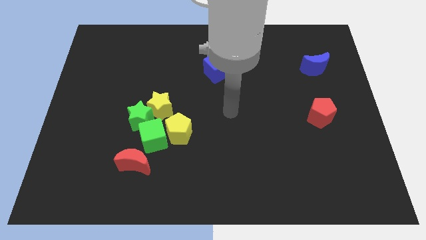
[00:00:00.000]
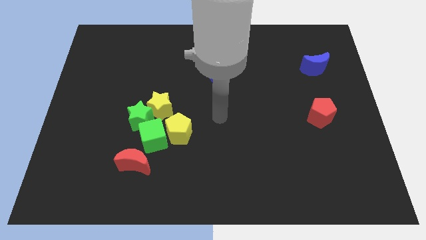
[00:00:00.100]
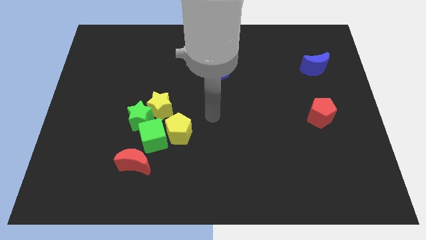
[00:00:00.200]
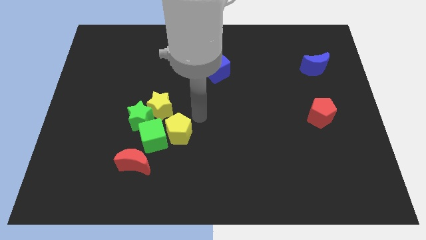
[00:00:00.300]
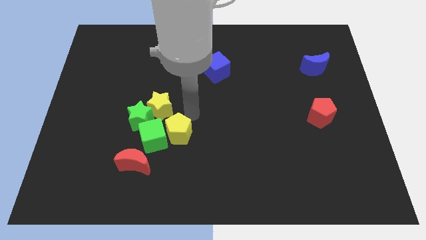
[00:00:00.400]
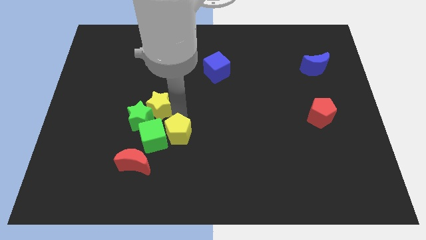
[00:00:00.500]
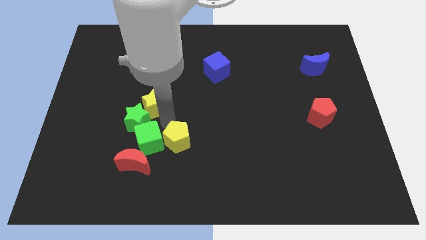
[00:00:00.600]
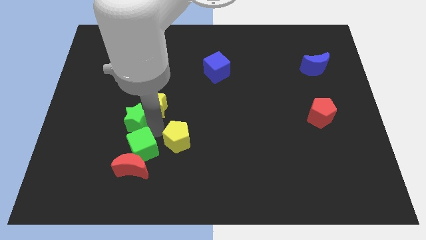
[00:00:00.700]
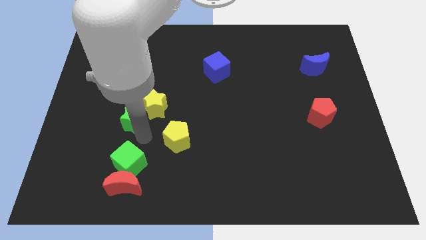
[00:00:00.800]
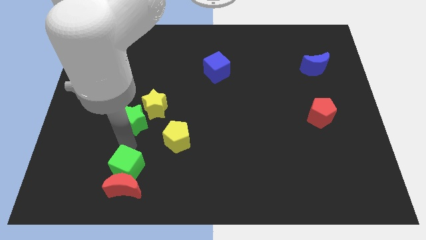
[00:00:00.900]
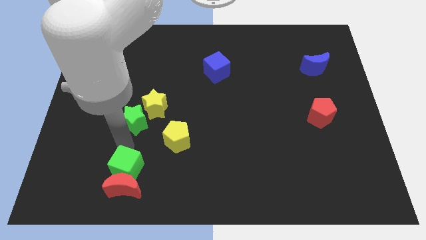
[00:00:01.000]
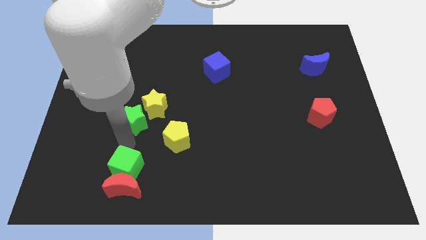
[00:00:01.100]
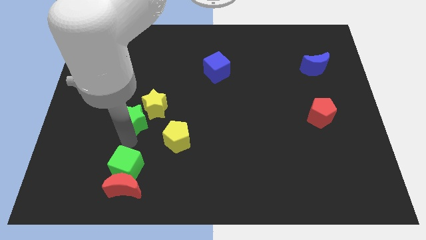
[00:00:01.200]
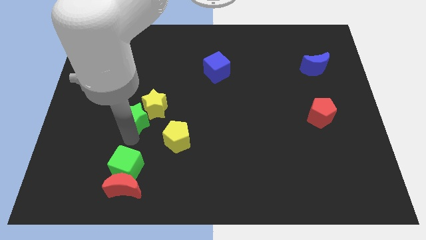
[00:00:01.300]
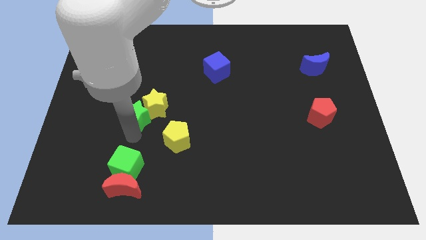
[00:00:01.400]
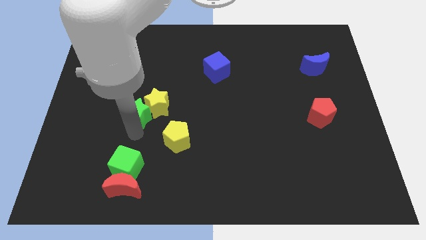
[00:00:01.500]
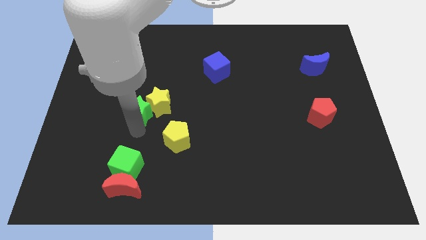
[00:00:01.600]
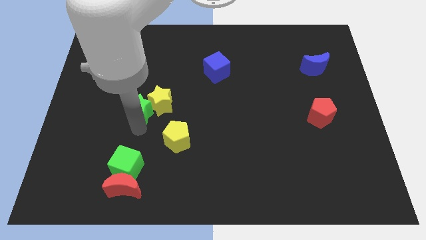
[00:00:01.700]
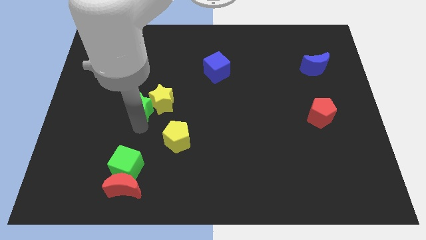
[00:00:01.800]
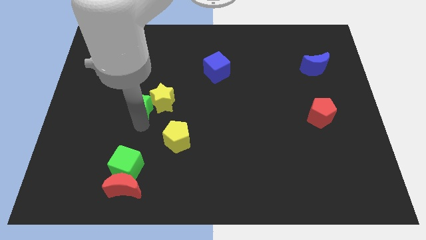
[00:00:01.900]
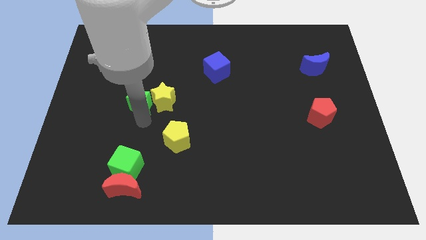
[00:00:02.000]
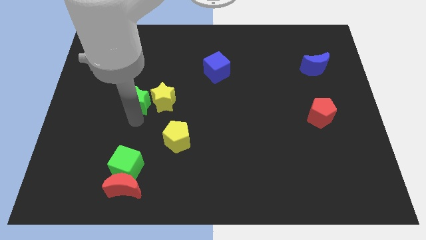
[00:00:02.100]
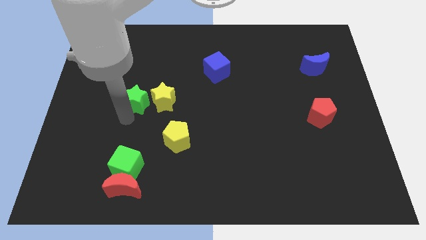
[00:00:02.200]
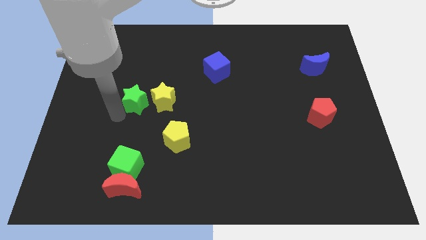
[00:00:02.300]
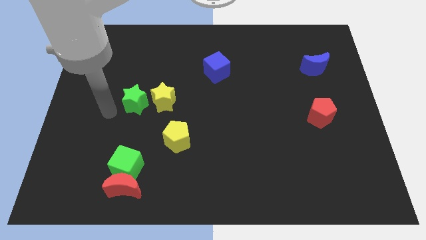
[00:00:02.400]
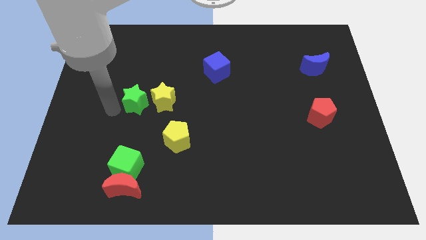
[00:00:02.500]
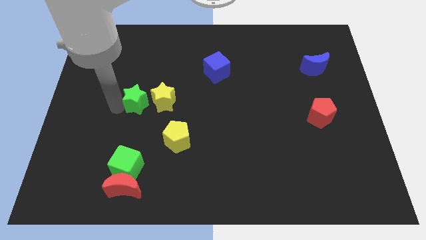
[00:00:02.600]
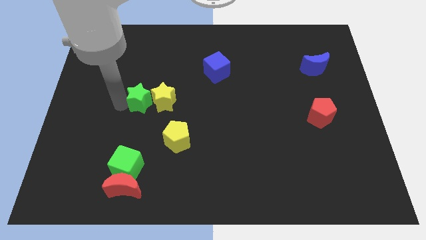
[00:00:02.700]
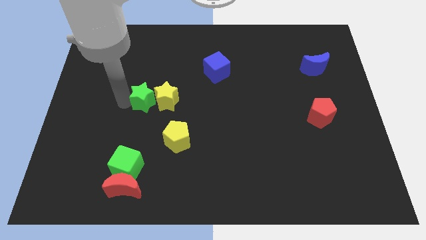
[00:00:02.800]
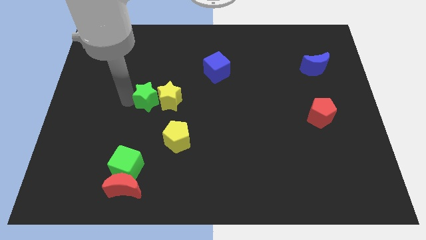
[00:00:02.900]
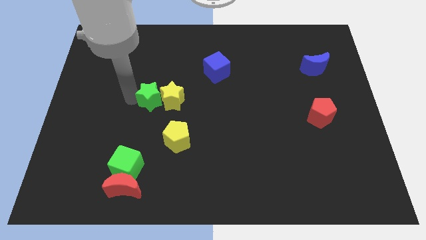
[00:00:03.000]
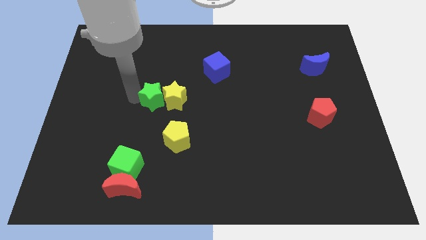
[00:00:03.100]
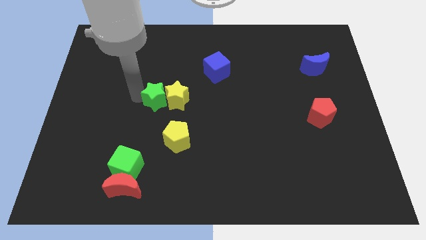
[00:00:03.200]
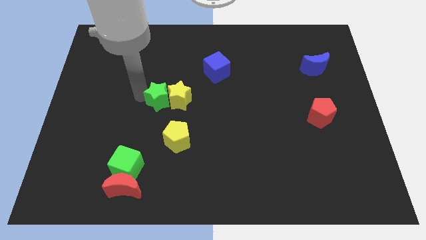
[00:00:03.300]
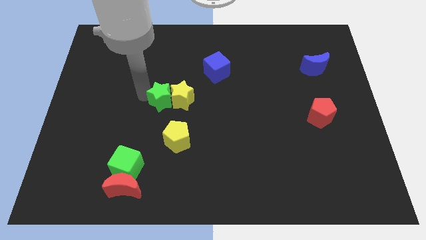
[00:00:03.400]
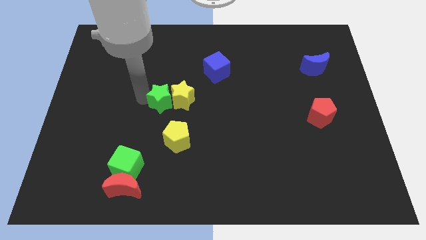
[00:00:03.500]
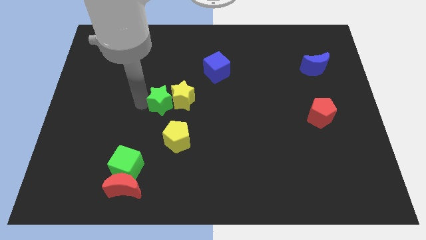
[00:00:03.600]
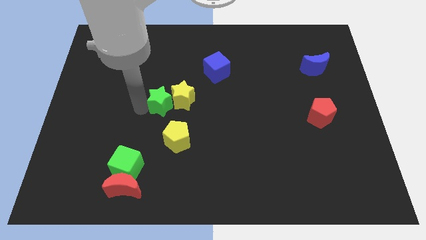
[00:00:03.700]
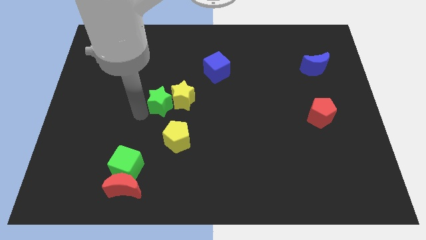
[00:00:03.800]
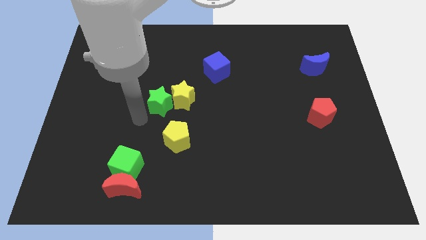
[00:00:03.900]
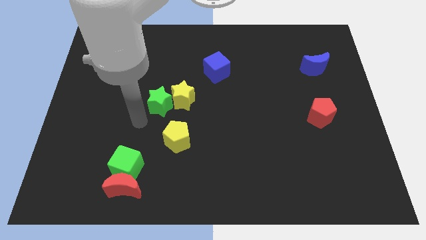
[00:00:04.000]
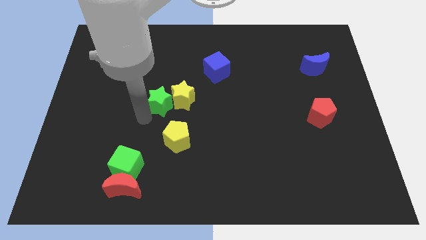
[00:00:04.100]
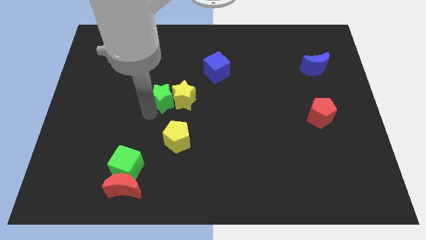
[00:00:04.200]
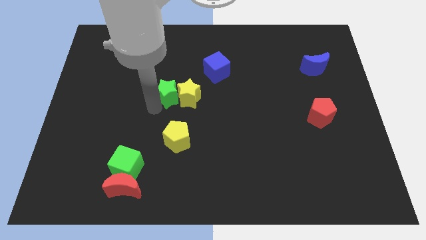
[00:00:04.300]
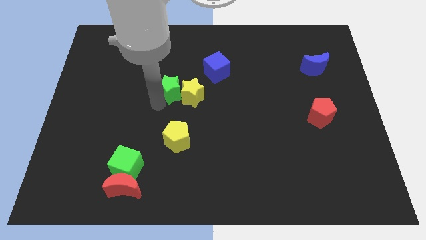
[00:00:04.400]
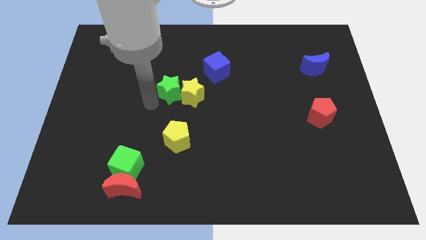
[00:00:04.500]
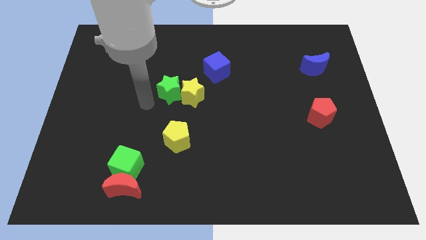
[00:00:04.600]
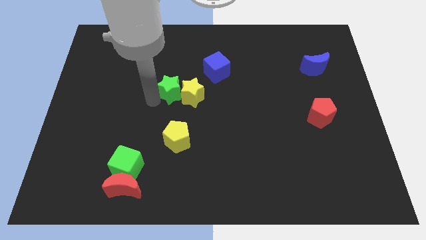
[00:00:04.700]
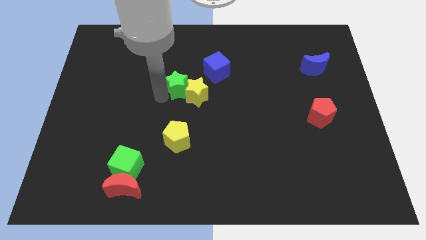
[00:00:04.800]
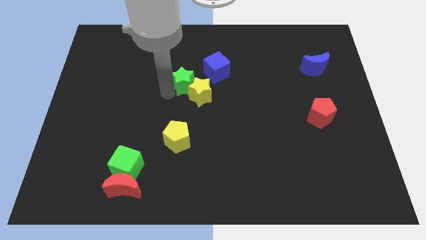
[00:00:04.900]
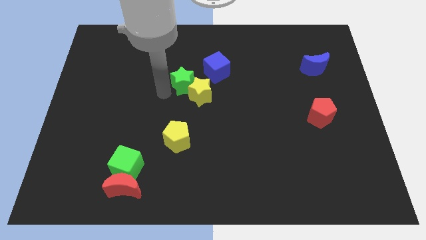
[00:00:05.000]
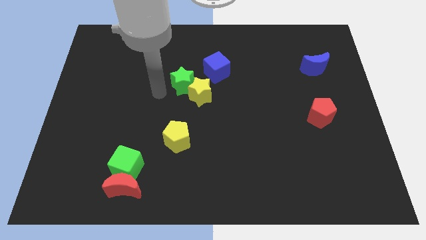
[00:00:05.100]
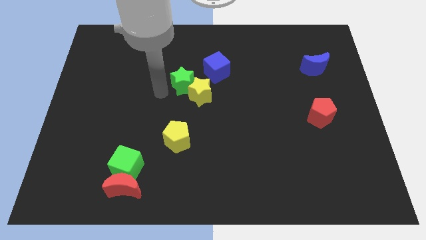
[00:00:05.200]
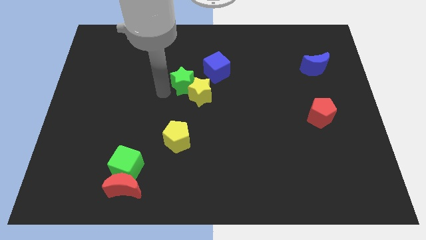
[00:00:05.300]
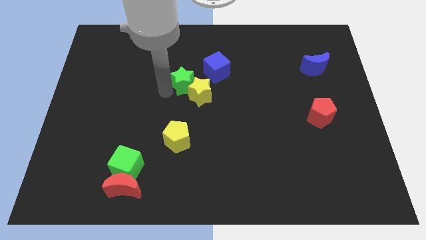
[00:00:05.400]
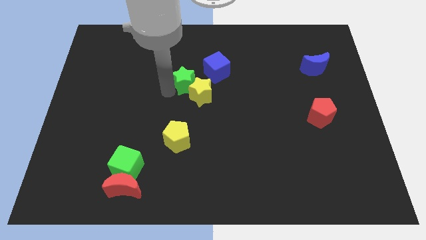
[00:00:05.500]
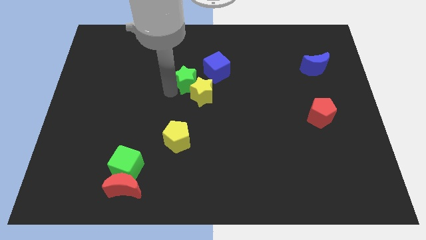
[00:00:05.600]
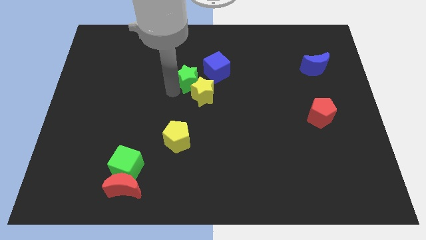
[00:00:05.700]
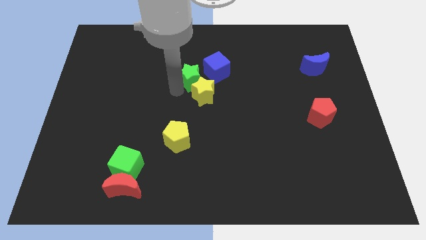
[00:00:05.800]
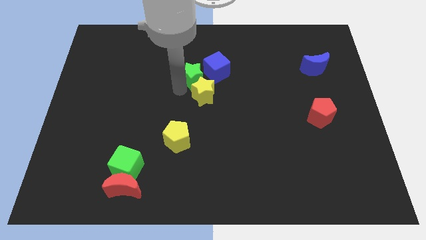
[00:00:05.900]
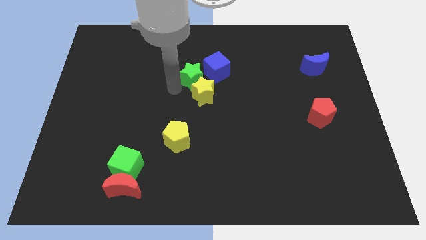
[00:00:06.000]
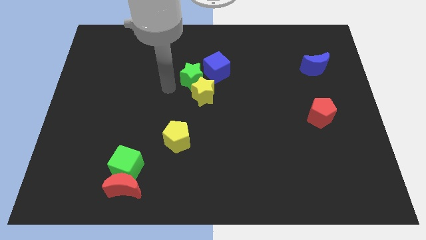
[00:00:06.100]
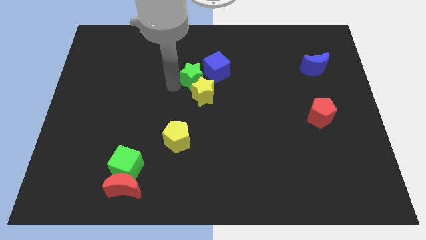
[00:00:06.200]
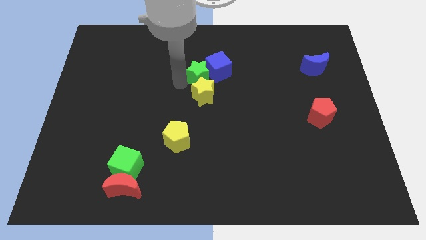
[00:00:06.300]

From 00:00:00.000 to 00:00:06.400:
put the green star close to the blue cube

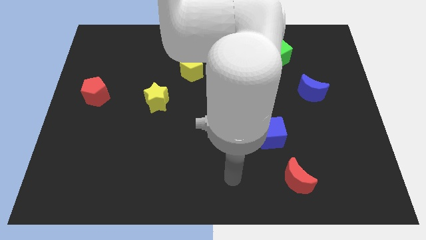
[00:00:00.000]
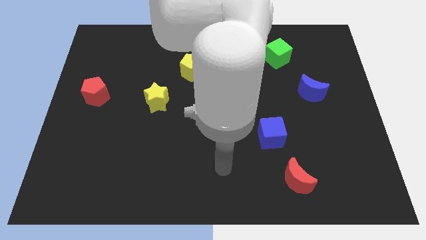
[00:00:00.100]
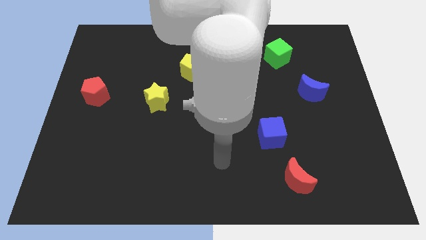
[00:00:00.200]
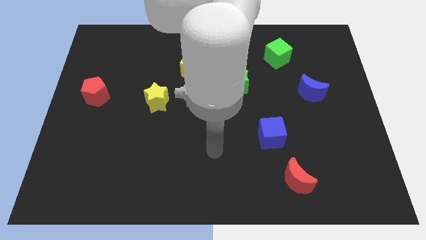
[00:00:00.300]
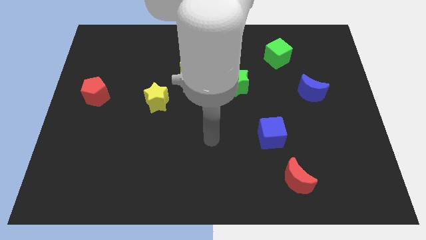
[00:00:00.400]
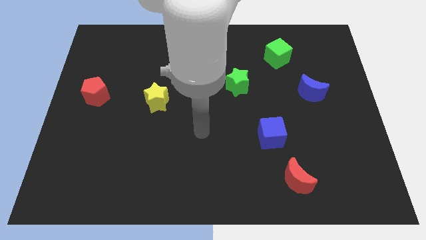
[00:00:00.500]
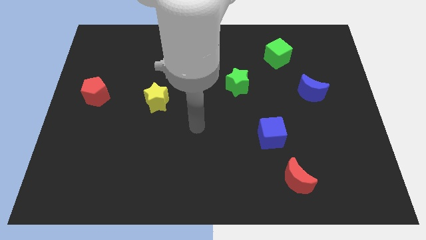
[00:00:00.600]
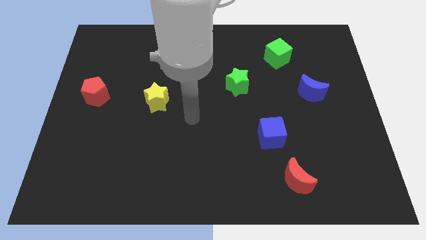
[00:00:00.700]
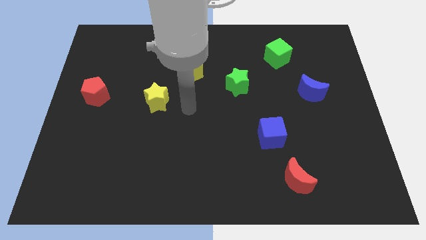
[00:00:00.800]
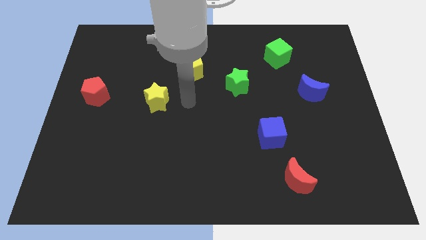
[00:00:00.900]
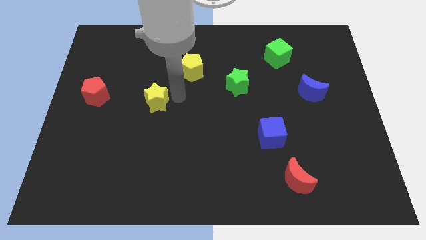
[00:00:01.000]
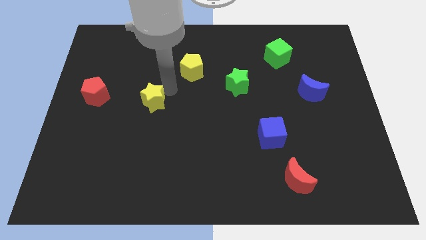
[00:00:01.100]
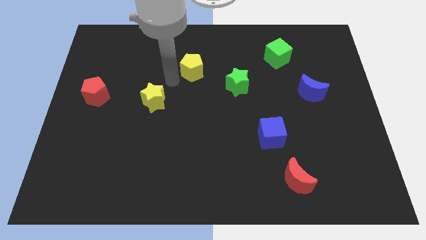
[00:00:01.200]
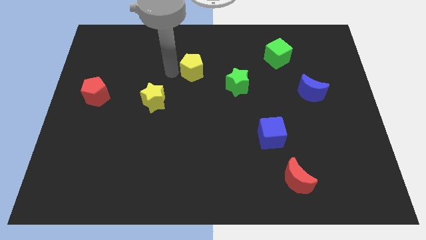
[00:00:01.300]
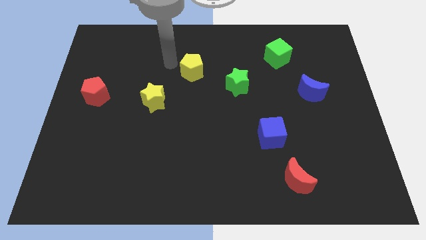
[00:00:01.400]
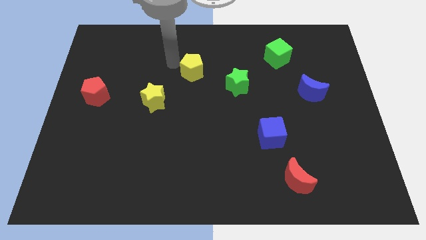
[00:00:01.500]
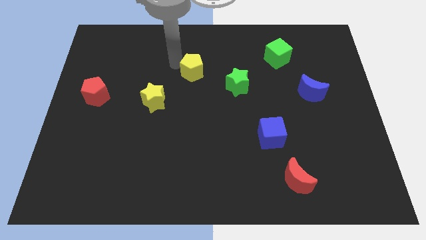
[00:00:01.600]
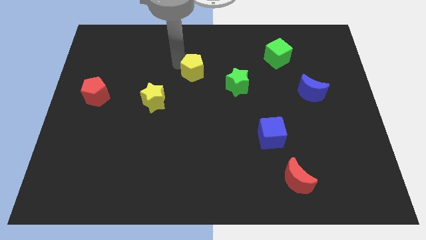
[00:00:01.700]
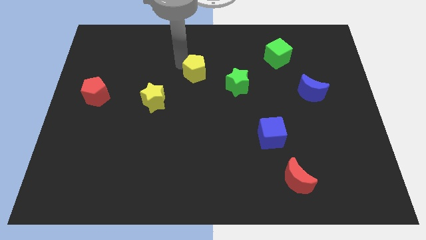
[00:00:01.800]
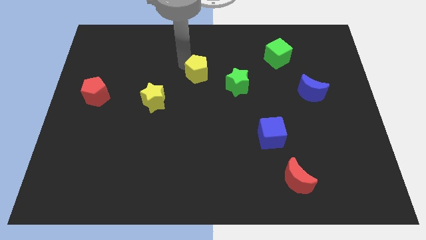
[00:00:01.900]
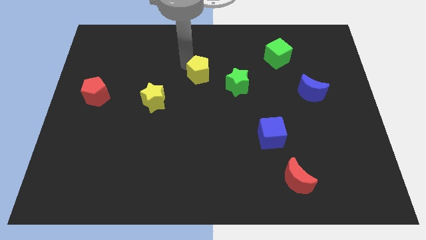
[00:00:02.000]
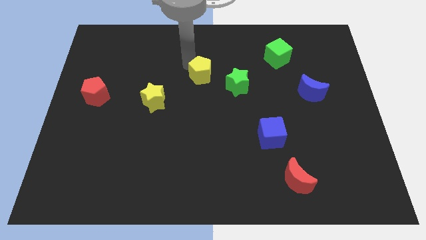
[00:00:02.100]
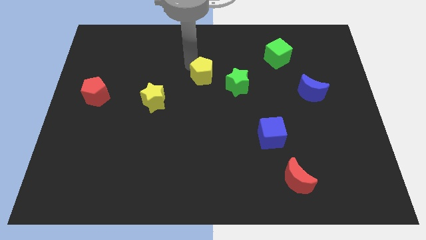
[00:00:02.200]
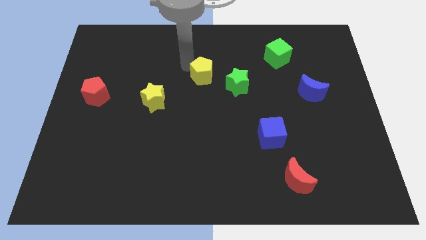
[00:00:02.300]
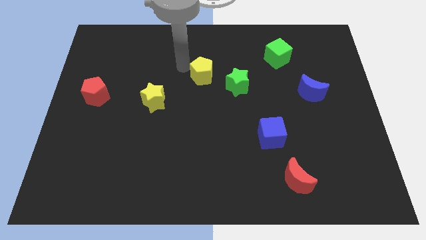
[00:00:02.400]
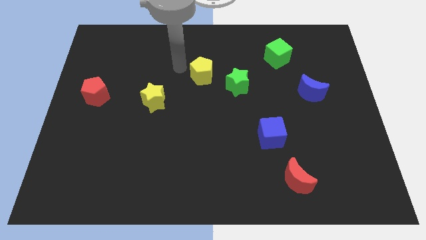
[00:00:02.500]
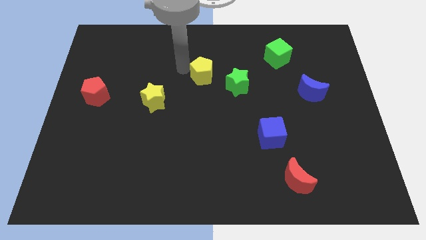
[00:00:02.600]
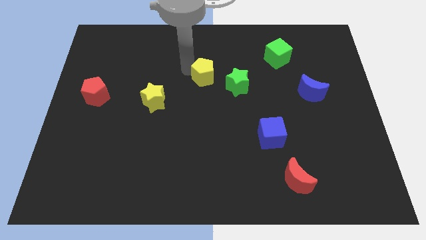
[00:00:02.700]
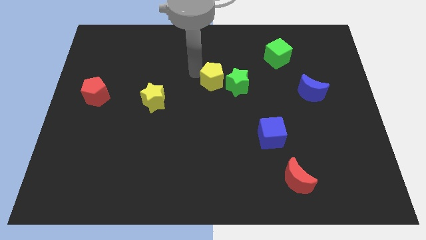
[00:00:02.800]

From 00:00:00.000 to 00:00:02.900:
move the yellow pentagon close to the green star
